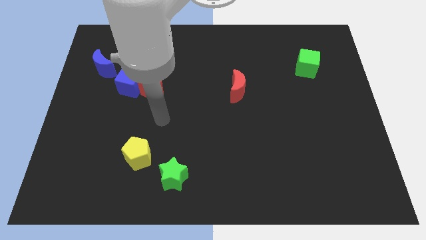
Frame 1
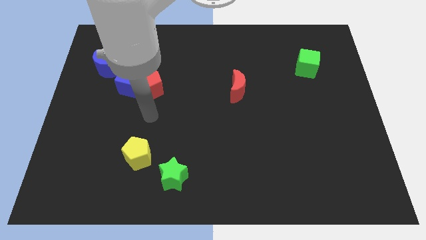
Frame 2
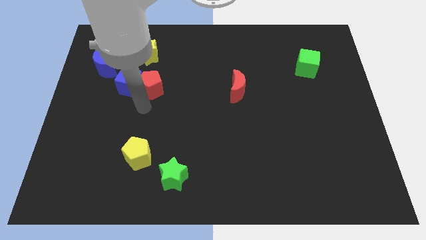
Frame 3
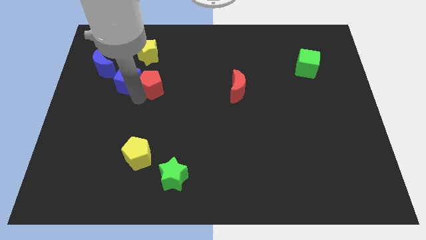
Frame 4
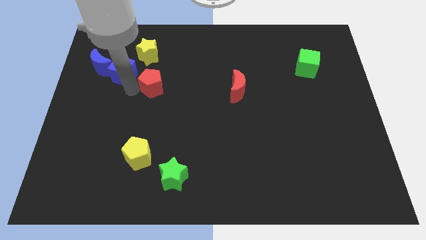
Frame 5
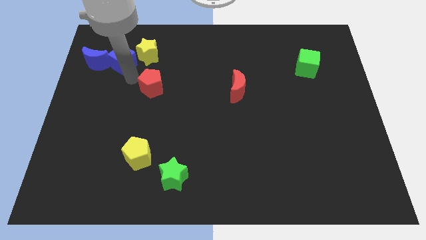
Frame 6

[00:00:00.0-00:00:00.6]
move the red pentagon away from the blue cube

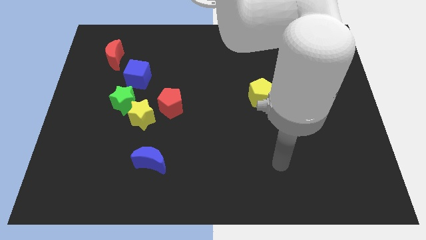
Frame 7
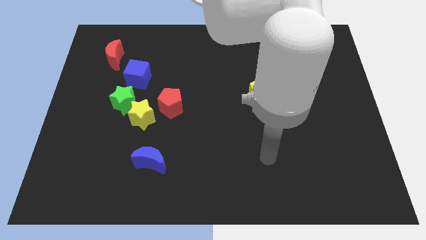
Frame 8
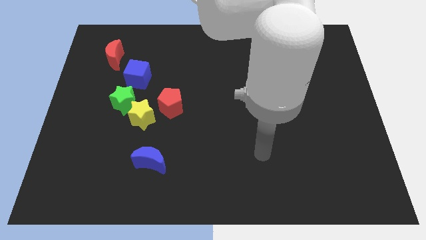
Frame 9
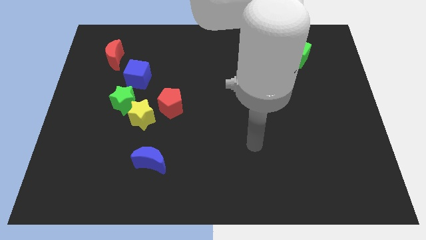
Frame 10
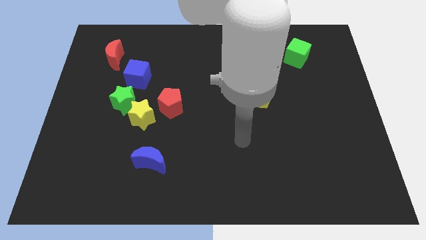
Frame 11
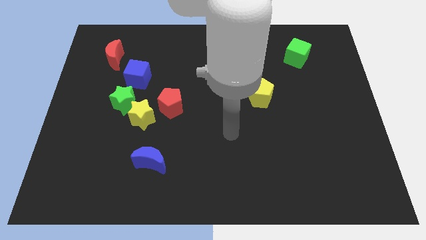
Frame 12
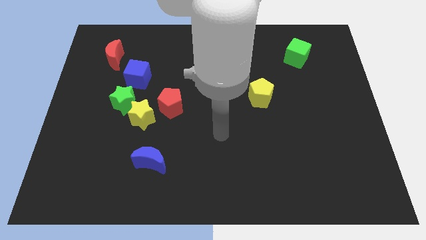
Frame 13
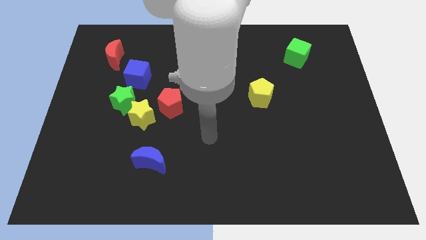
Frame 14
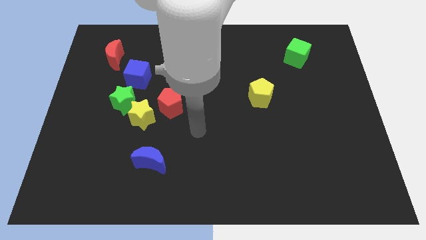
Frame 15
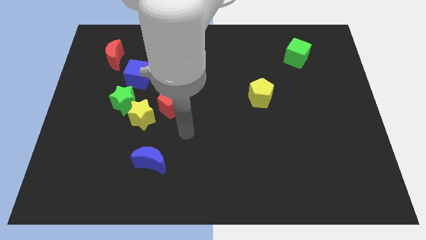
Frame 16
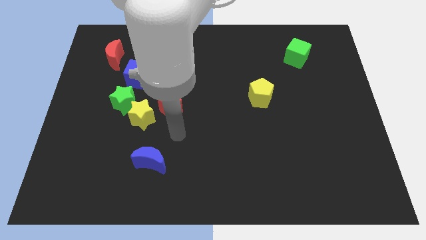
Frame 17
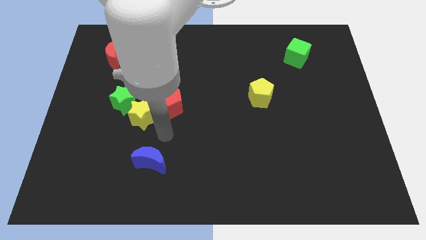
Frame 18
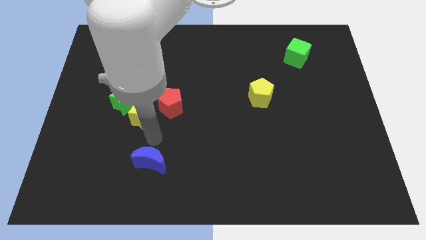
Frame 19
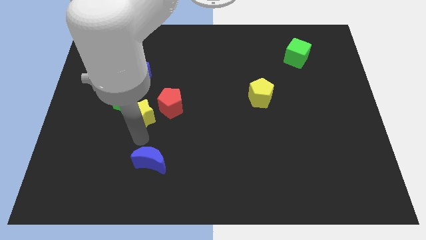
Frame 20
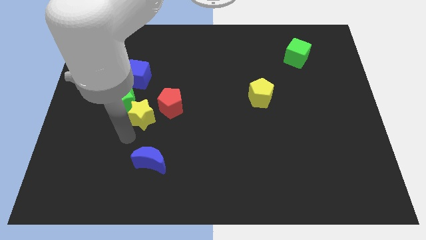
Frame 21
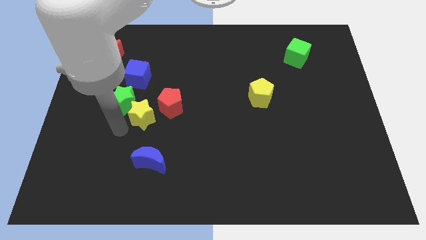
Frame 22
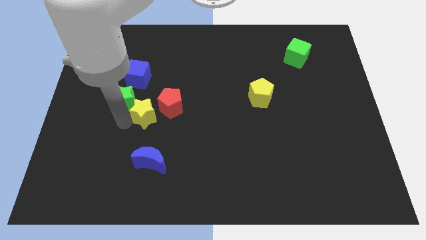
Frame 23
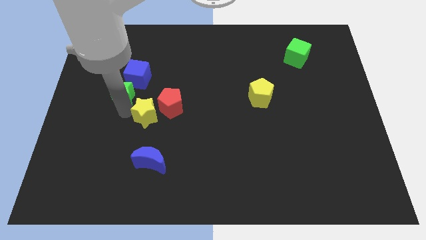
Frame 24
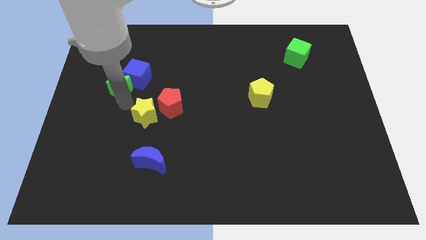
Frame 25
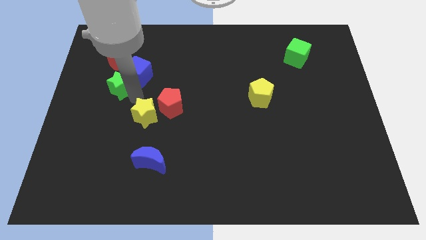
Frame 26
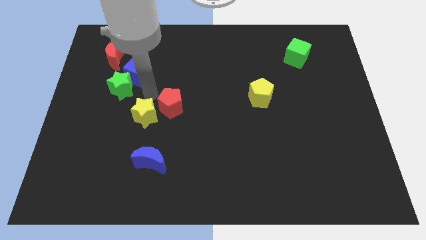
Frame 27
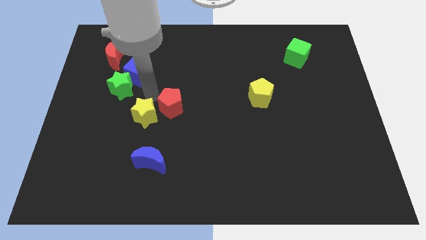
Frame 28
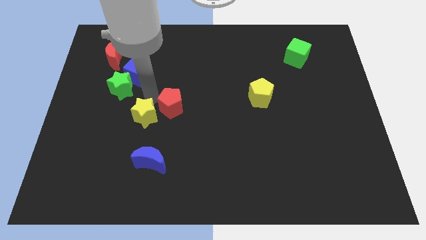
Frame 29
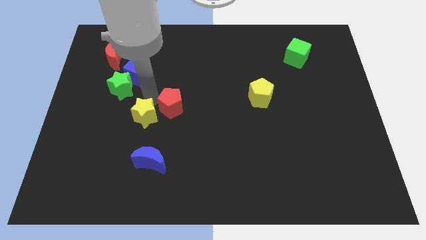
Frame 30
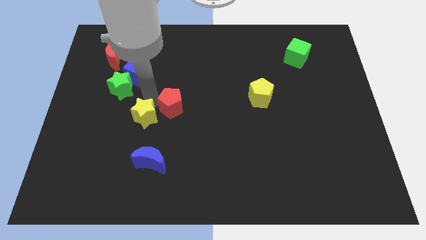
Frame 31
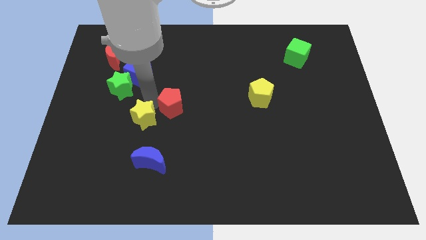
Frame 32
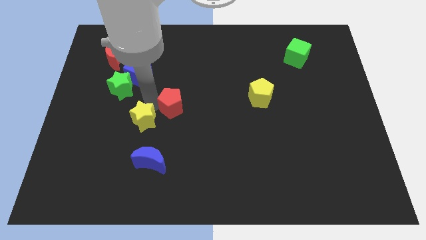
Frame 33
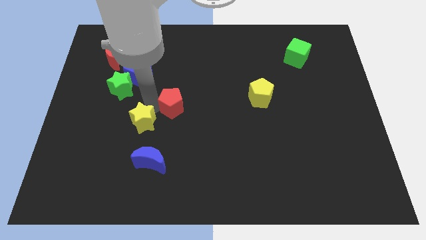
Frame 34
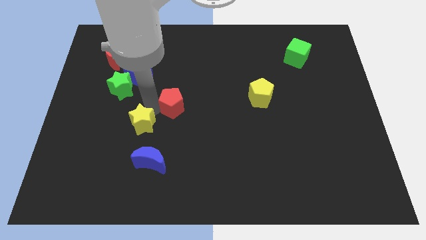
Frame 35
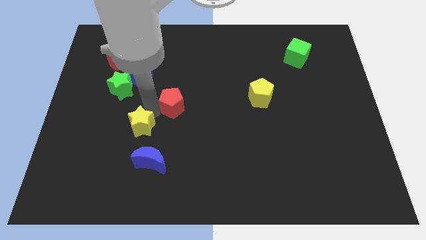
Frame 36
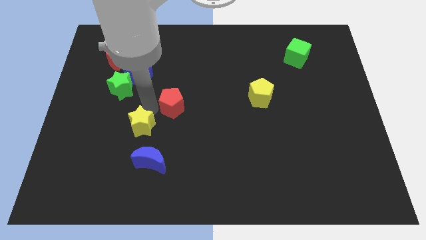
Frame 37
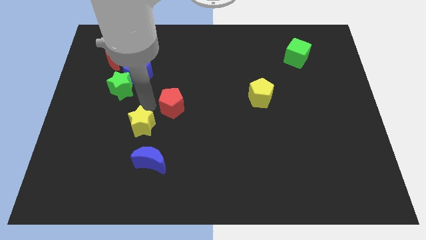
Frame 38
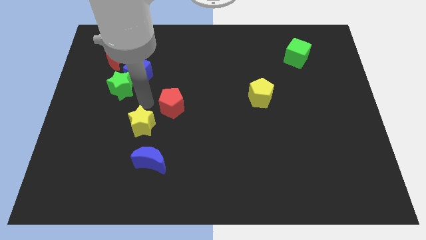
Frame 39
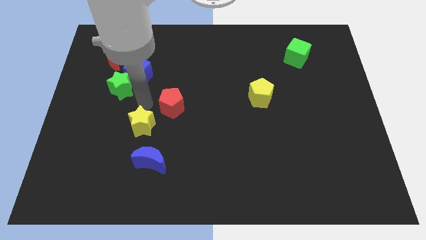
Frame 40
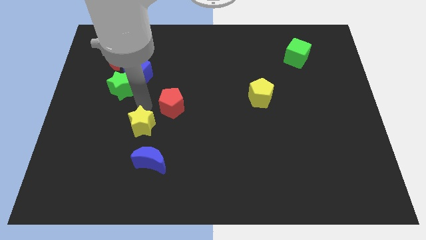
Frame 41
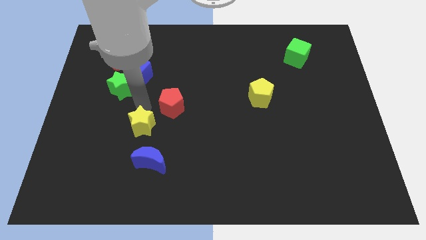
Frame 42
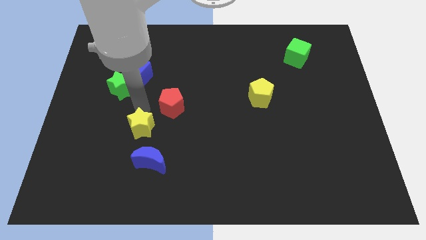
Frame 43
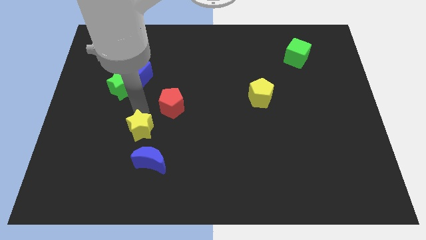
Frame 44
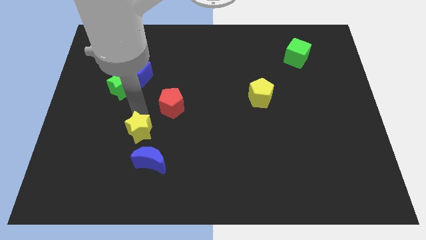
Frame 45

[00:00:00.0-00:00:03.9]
move the yellow star away from the green star and red pentagon

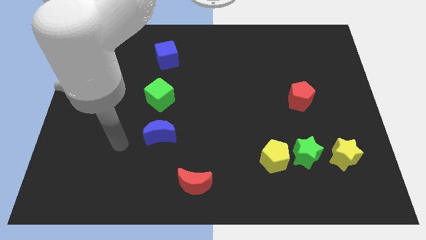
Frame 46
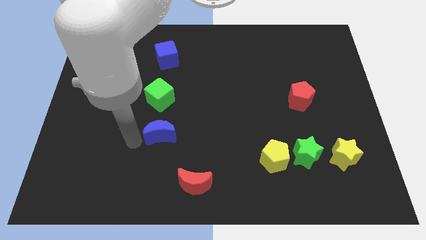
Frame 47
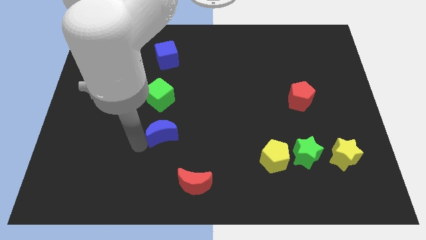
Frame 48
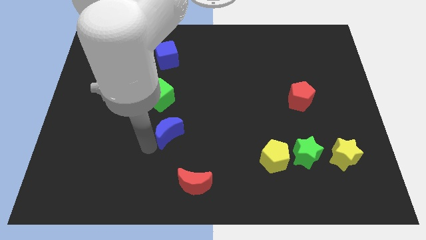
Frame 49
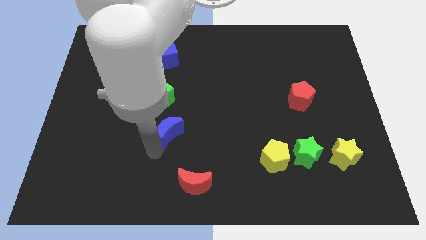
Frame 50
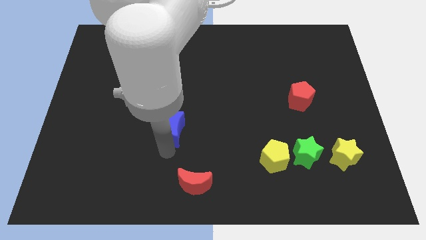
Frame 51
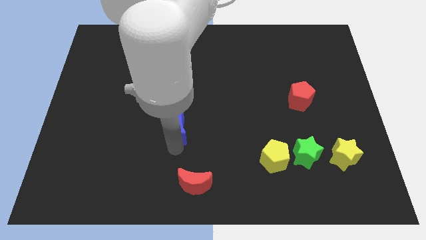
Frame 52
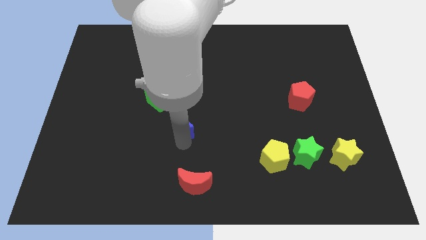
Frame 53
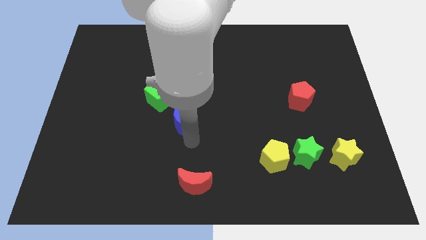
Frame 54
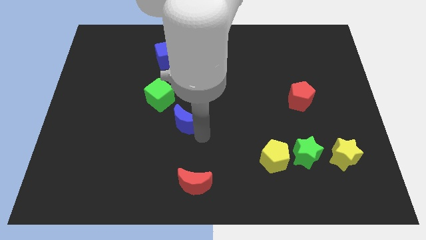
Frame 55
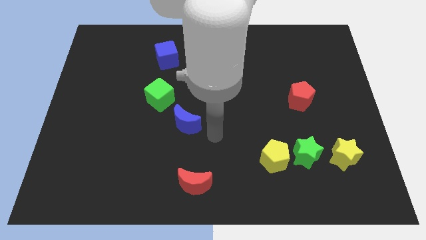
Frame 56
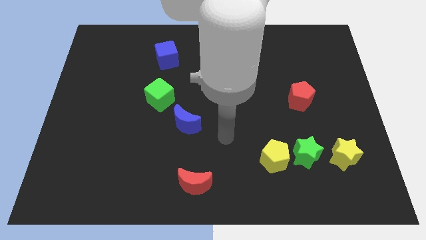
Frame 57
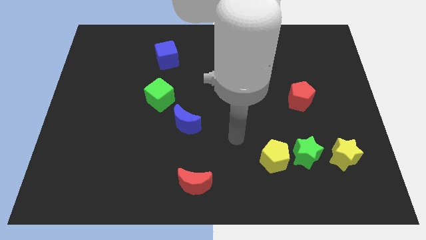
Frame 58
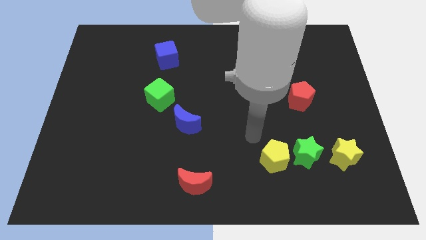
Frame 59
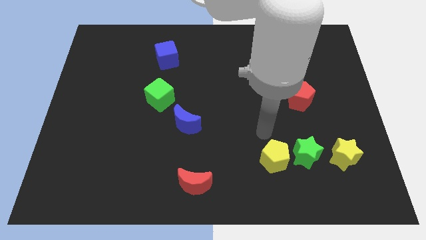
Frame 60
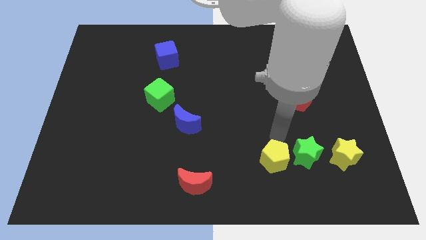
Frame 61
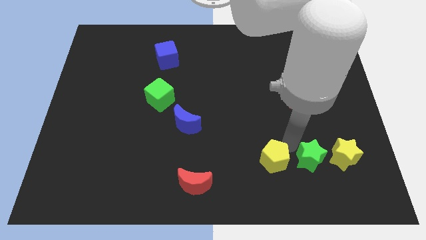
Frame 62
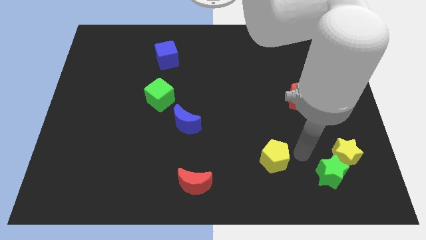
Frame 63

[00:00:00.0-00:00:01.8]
move the yellow pentagon away from the green star

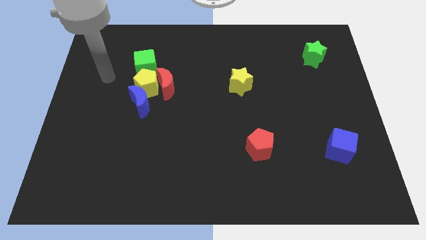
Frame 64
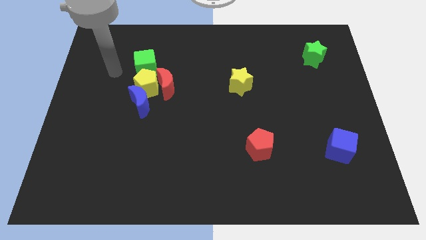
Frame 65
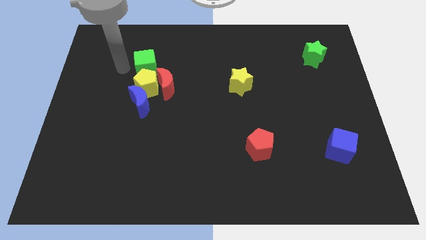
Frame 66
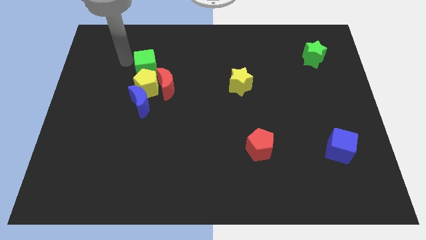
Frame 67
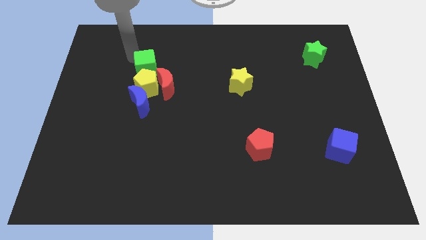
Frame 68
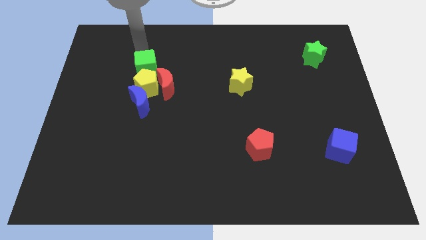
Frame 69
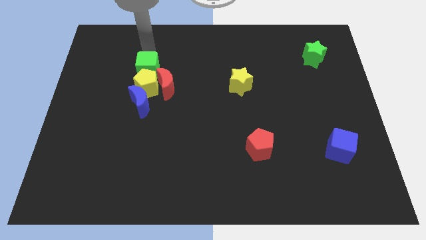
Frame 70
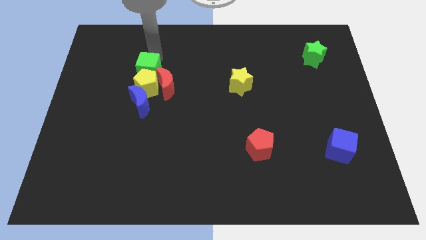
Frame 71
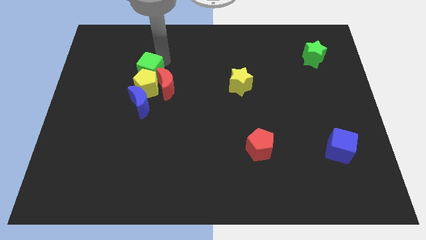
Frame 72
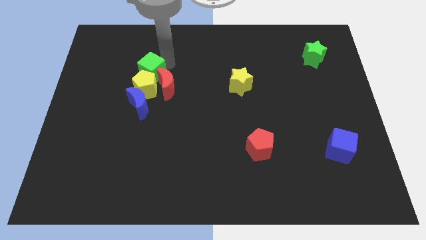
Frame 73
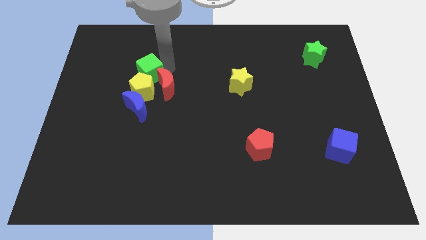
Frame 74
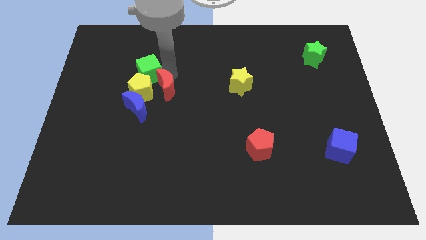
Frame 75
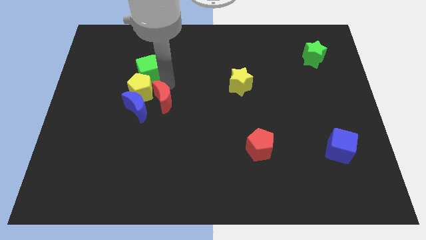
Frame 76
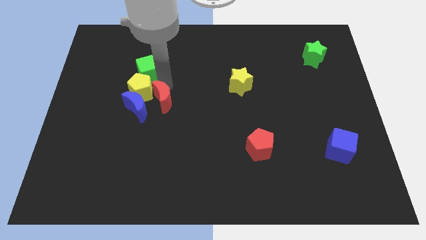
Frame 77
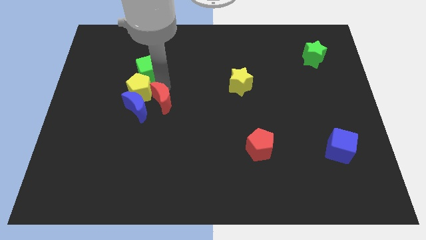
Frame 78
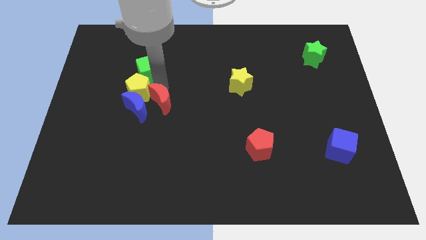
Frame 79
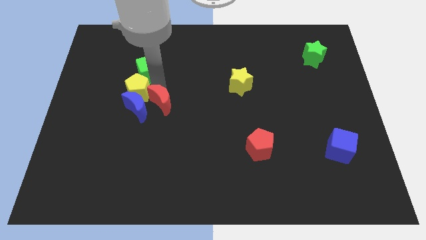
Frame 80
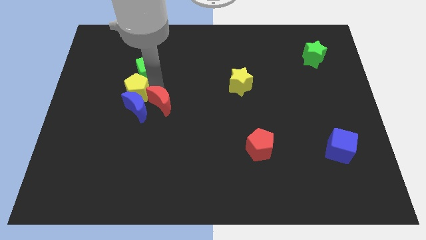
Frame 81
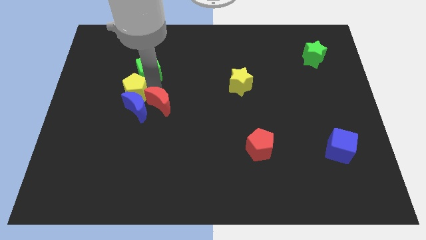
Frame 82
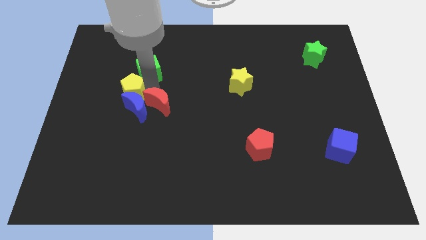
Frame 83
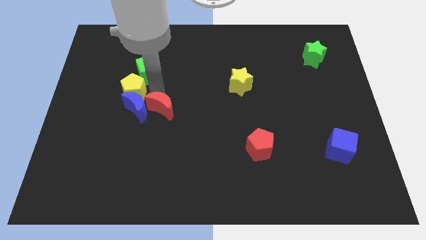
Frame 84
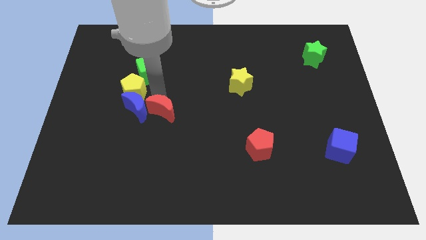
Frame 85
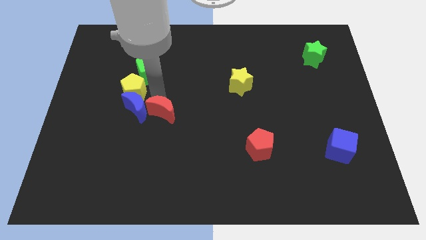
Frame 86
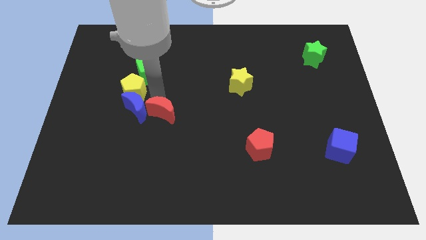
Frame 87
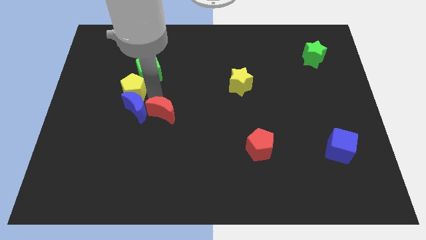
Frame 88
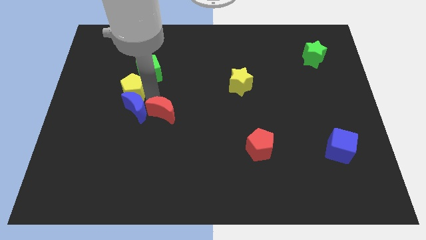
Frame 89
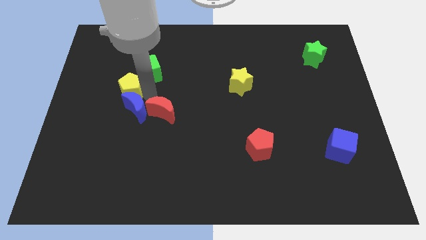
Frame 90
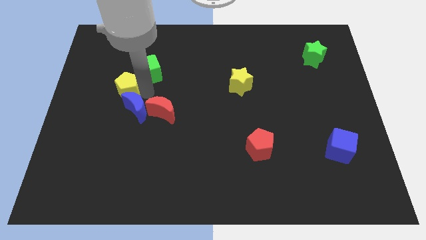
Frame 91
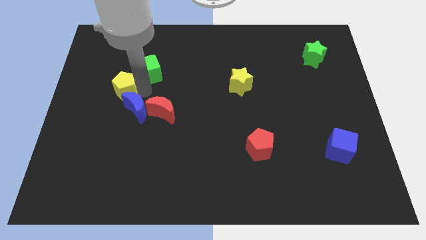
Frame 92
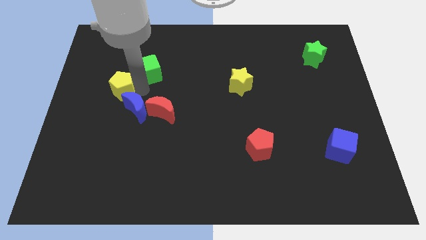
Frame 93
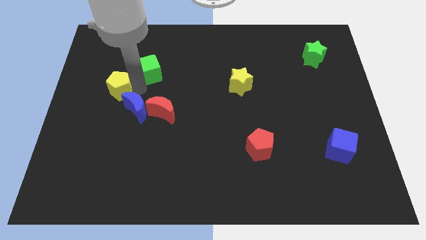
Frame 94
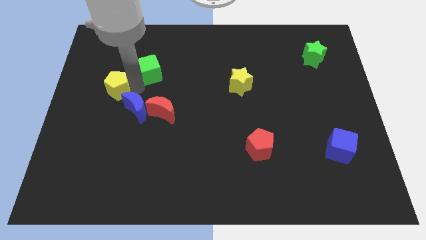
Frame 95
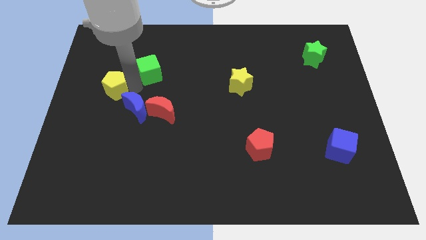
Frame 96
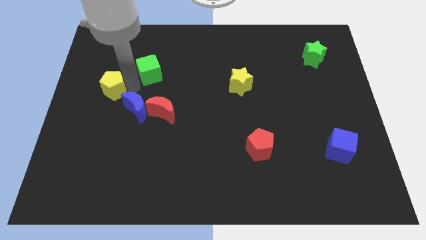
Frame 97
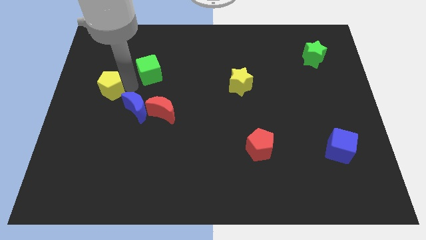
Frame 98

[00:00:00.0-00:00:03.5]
pull the yellow pentagon apart from the red moon, blue moon, and green cube
